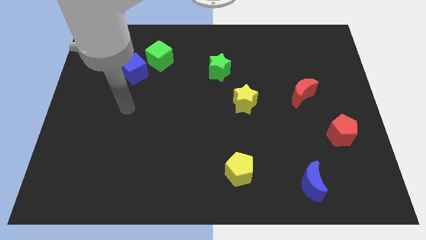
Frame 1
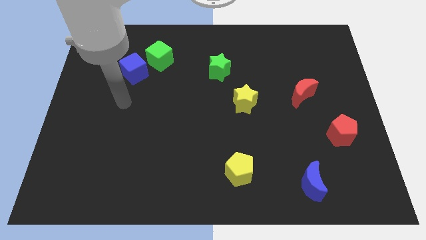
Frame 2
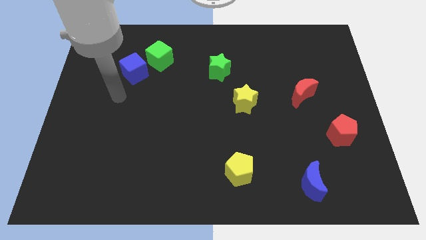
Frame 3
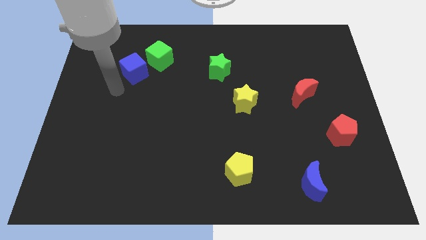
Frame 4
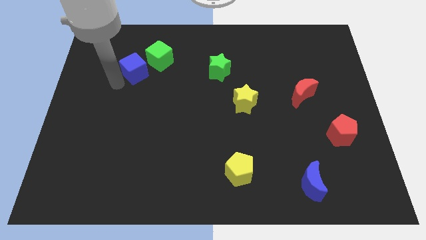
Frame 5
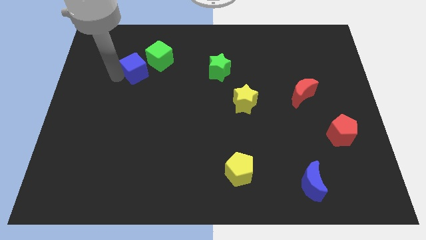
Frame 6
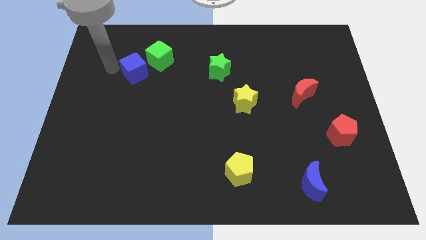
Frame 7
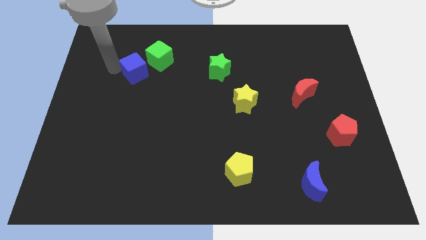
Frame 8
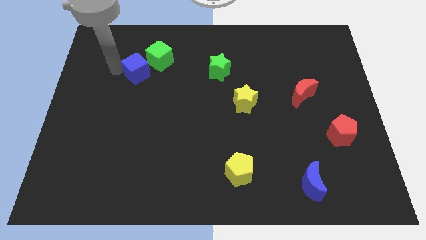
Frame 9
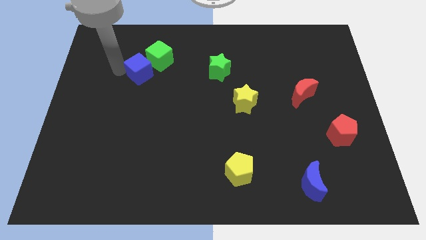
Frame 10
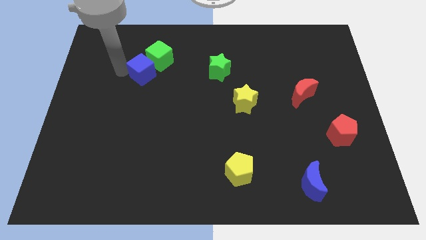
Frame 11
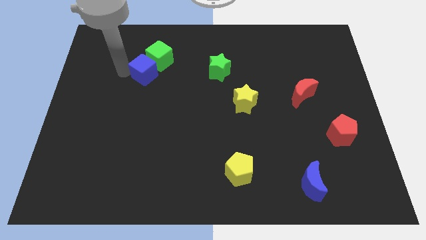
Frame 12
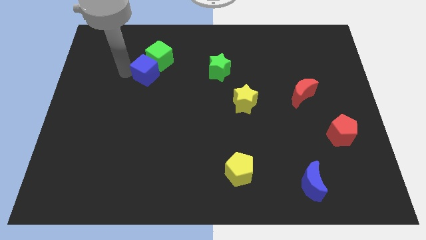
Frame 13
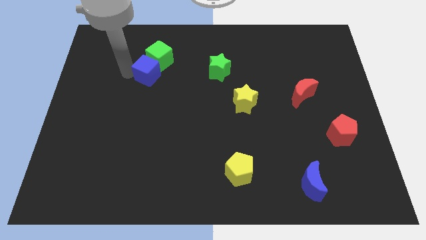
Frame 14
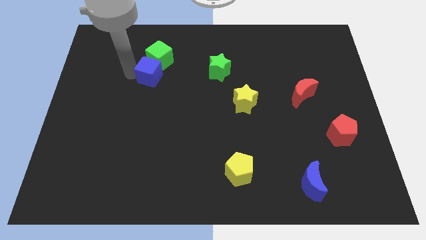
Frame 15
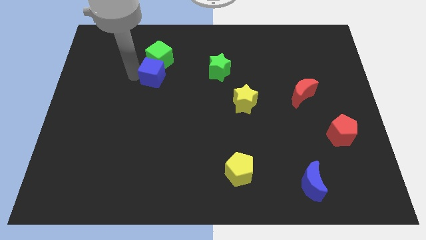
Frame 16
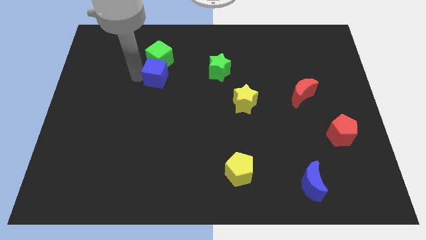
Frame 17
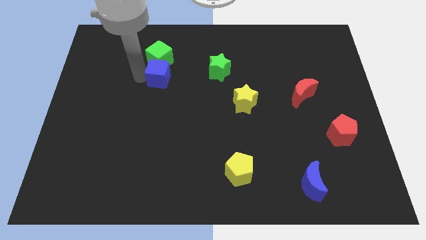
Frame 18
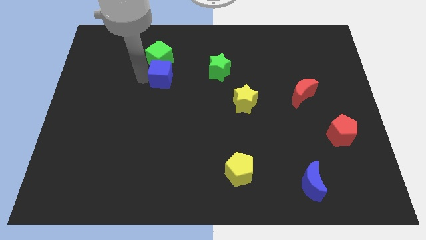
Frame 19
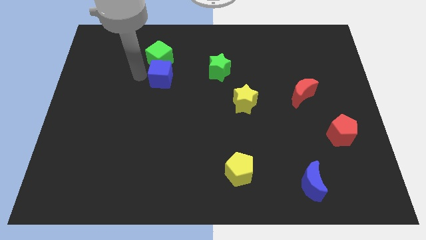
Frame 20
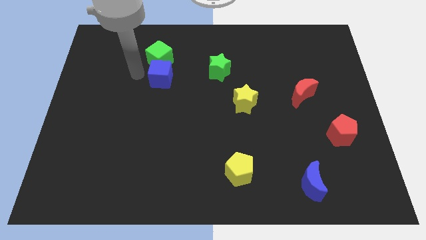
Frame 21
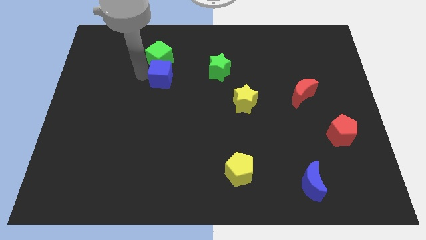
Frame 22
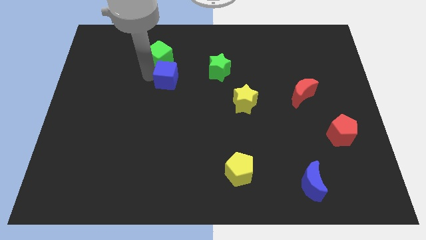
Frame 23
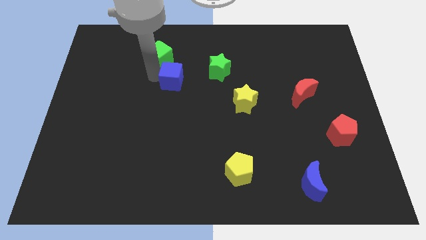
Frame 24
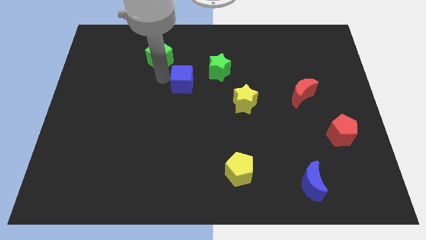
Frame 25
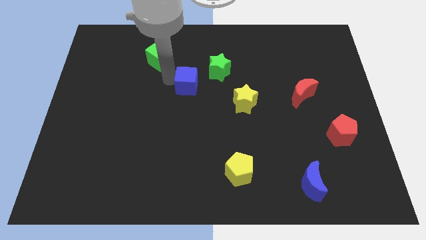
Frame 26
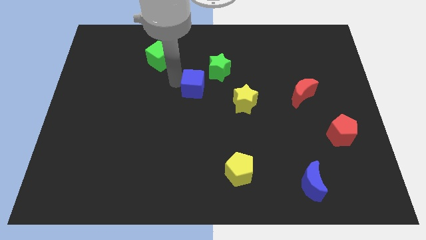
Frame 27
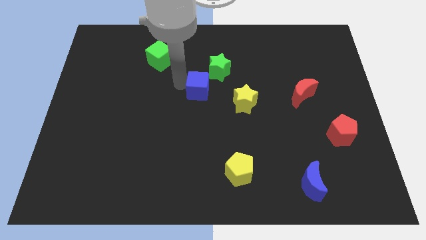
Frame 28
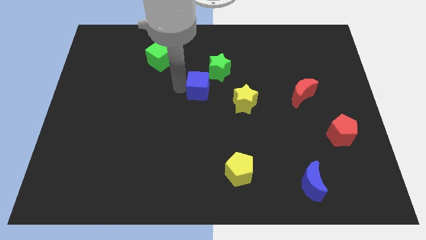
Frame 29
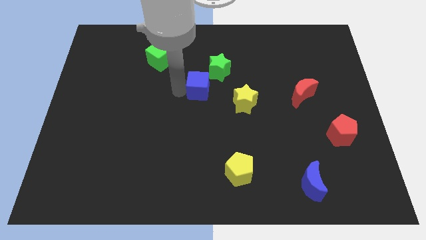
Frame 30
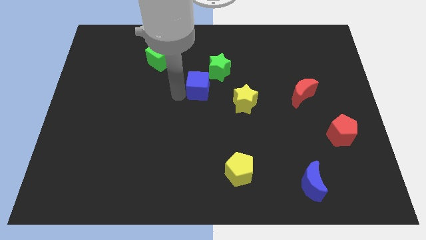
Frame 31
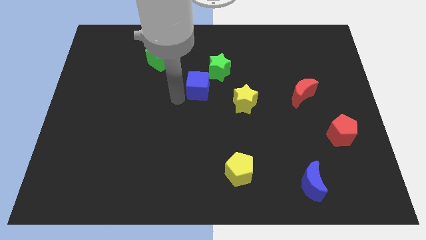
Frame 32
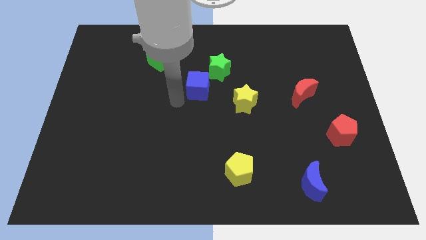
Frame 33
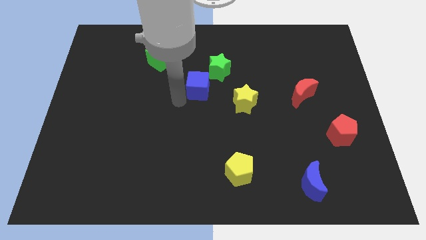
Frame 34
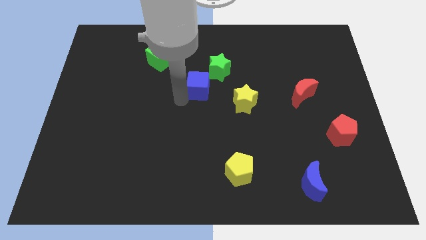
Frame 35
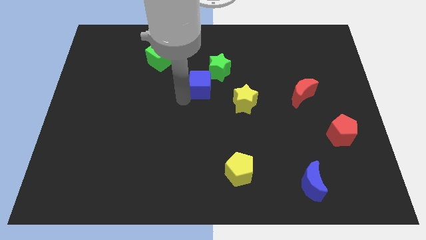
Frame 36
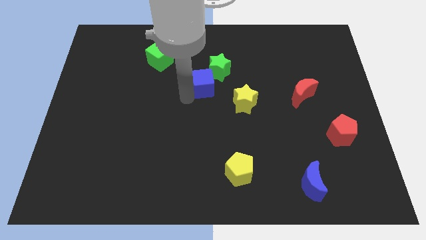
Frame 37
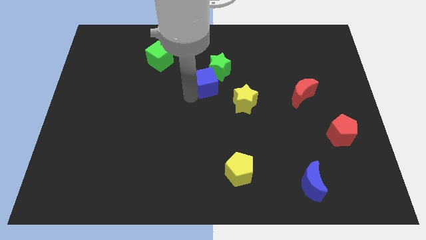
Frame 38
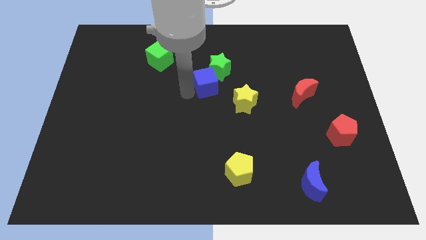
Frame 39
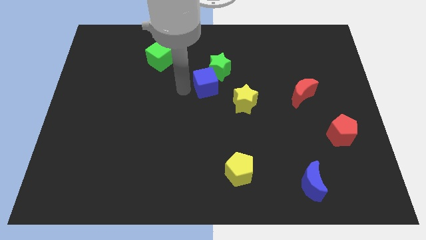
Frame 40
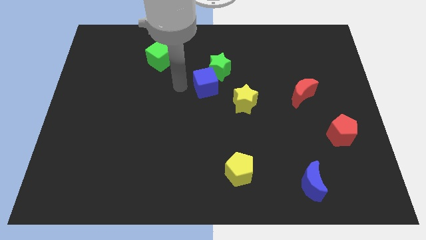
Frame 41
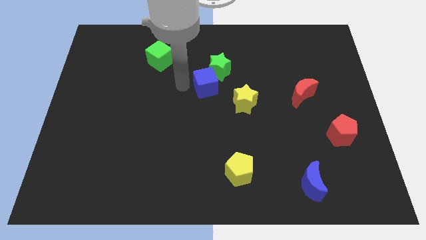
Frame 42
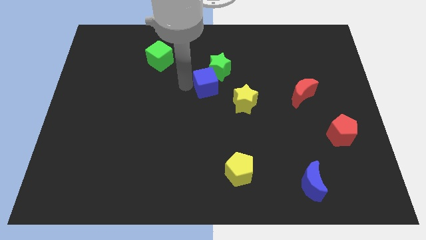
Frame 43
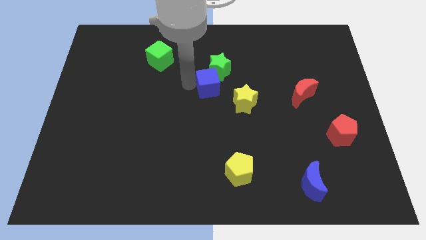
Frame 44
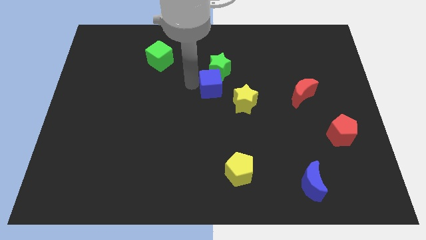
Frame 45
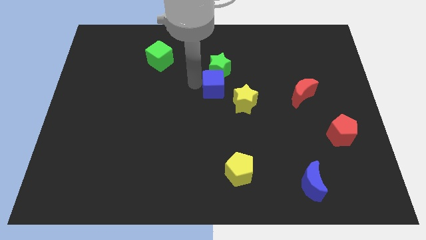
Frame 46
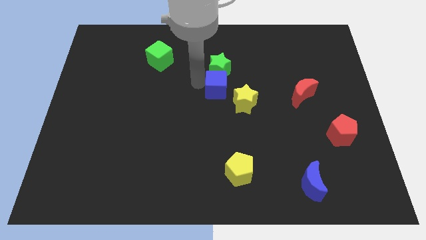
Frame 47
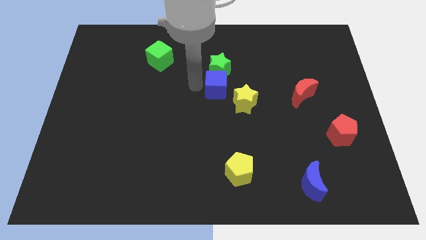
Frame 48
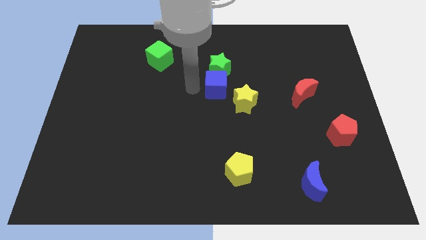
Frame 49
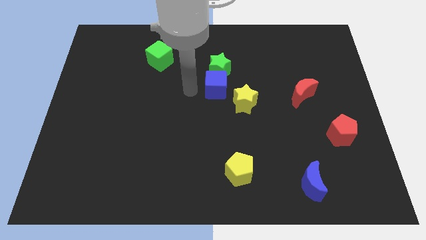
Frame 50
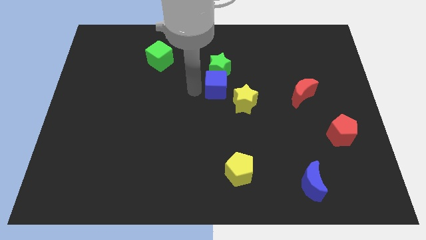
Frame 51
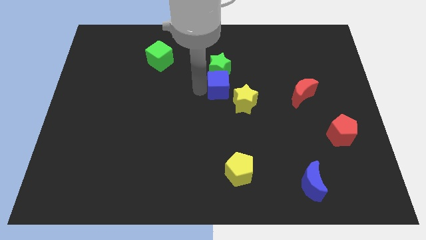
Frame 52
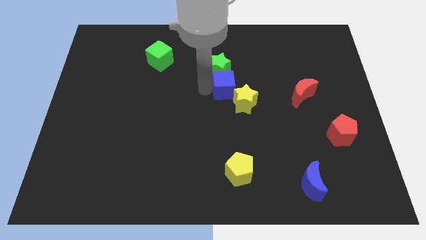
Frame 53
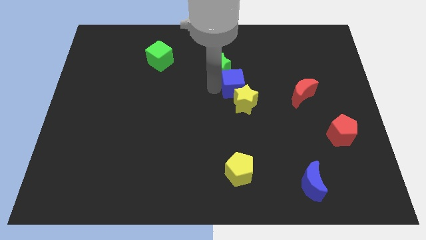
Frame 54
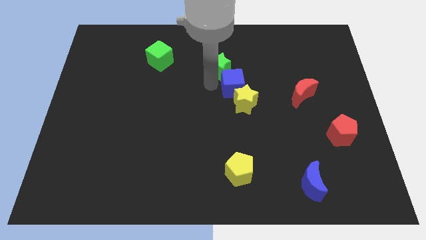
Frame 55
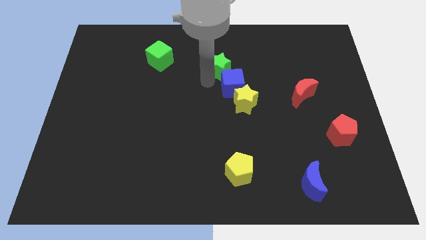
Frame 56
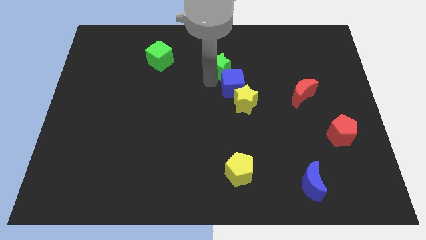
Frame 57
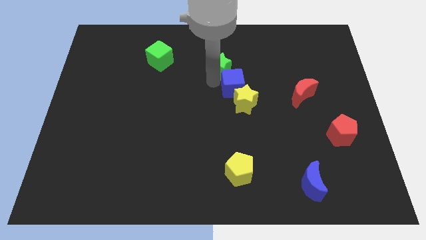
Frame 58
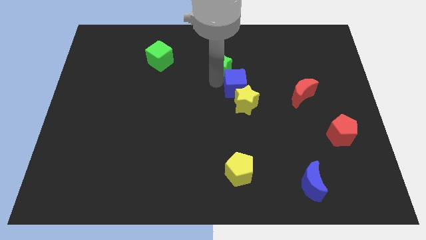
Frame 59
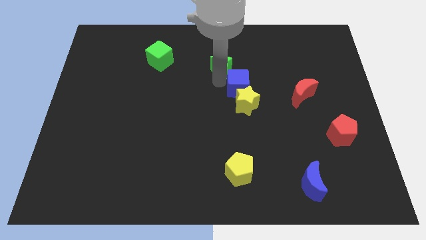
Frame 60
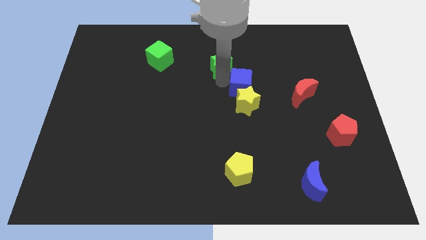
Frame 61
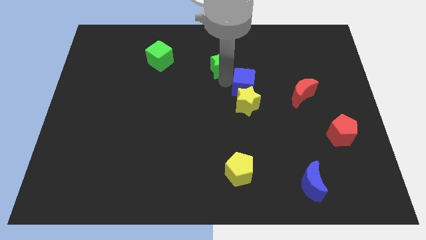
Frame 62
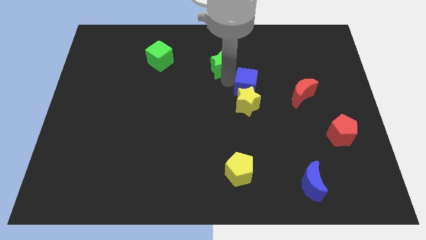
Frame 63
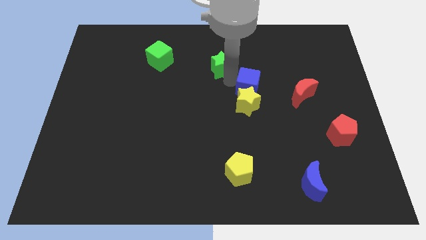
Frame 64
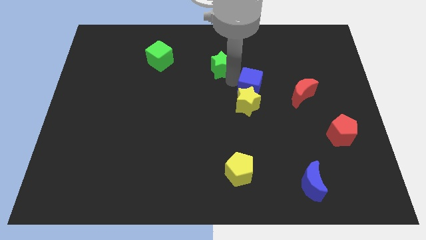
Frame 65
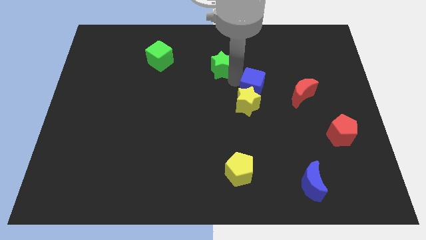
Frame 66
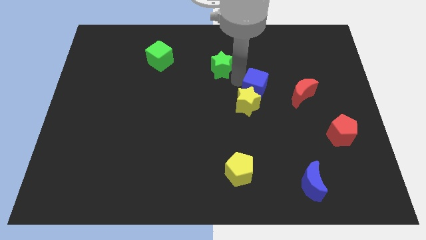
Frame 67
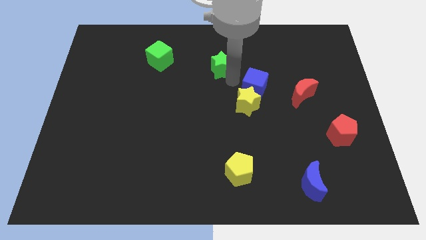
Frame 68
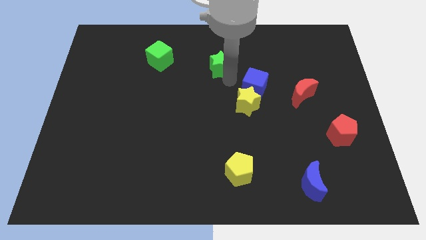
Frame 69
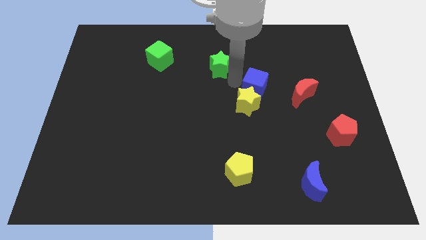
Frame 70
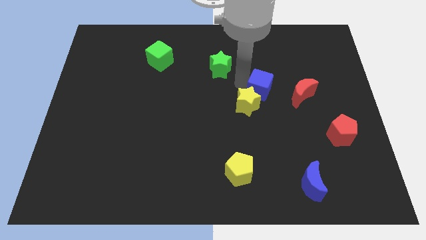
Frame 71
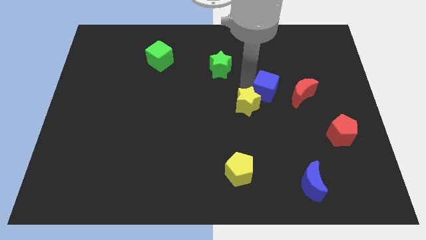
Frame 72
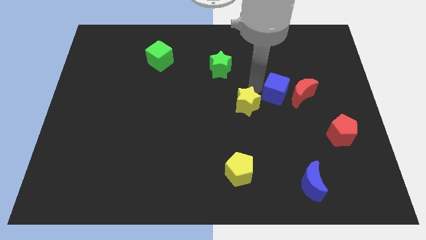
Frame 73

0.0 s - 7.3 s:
move the blue cube next to the red moon

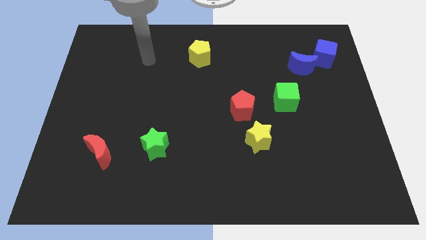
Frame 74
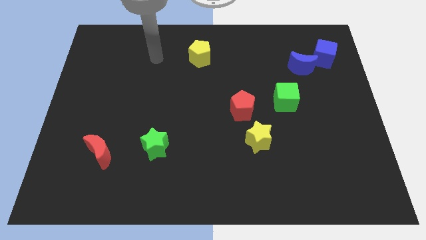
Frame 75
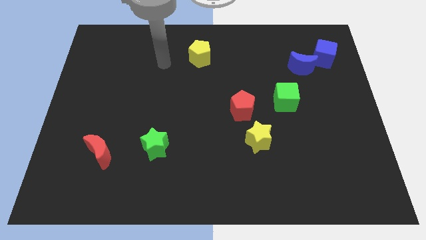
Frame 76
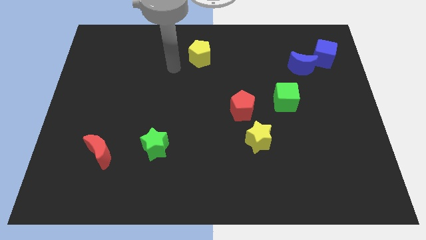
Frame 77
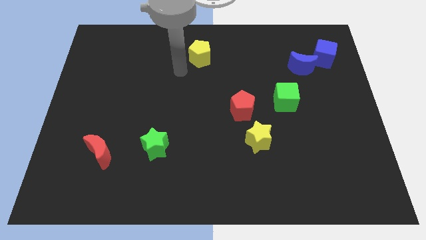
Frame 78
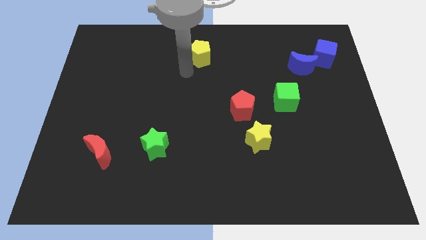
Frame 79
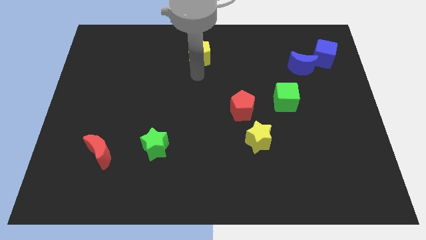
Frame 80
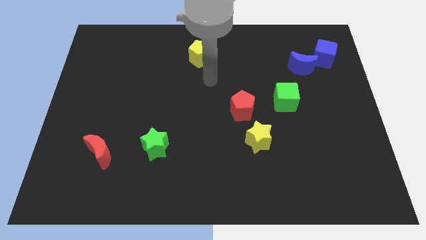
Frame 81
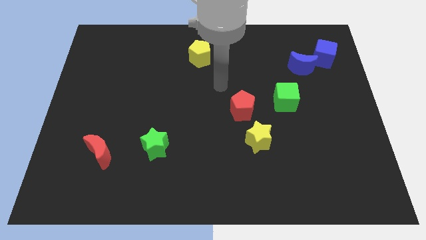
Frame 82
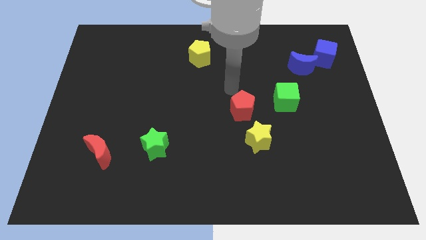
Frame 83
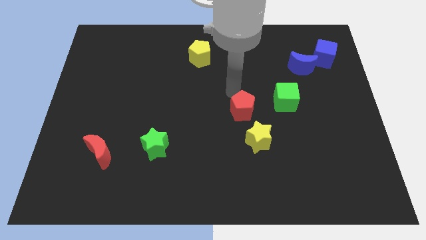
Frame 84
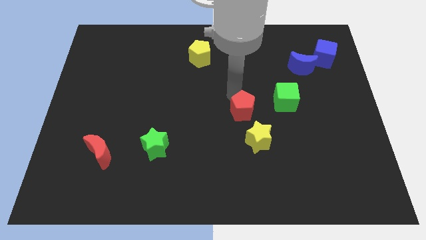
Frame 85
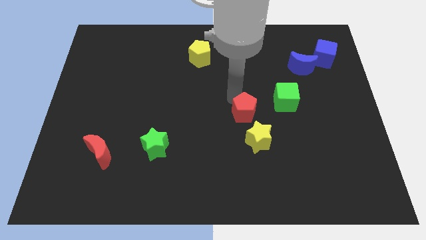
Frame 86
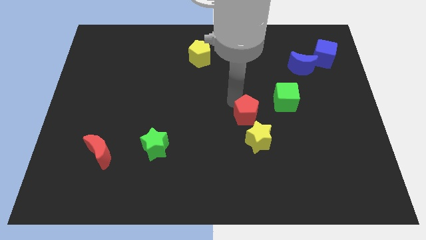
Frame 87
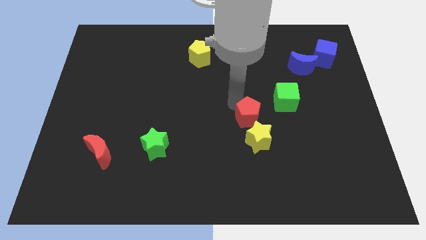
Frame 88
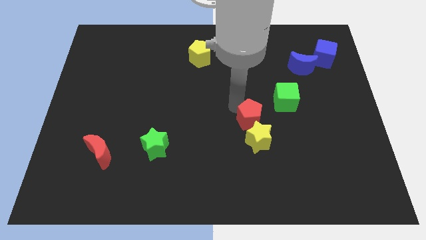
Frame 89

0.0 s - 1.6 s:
move the red pentagon close to the yellow star
